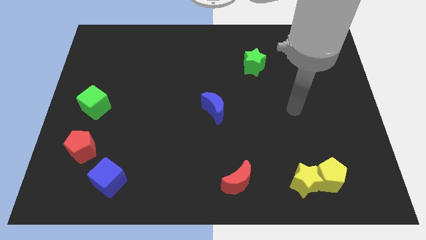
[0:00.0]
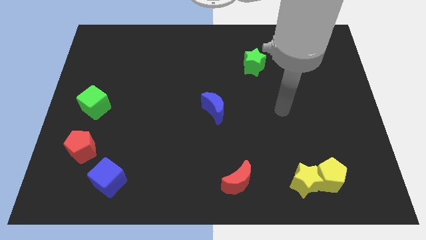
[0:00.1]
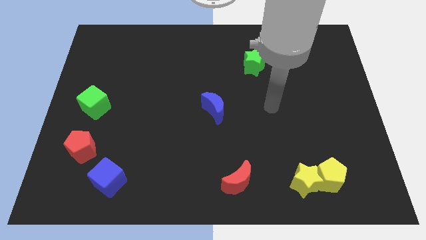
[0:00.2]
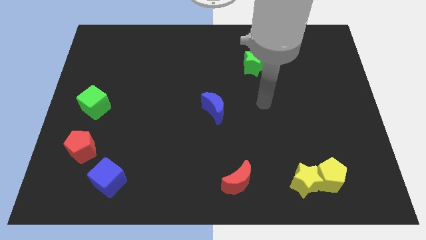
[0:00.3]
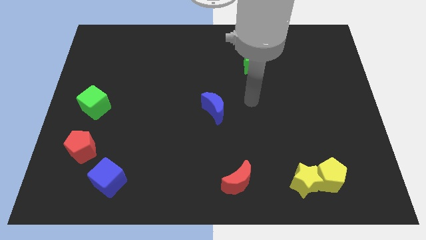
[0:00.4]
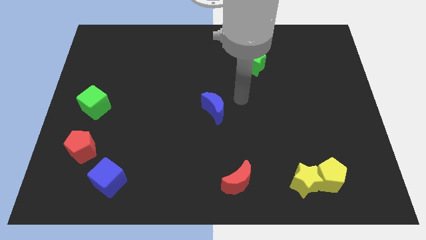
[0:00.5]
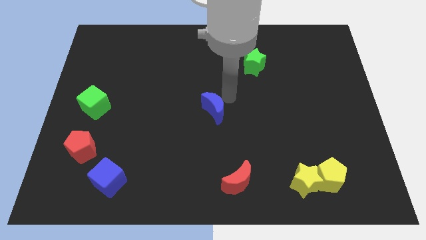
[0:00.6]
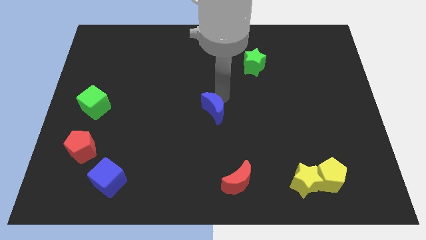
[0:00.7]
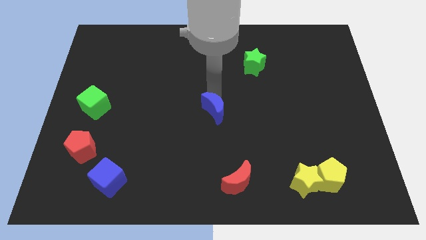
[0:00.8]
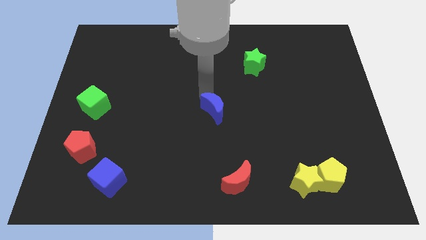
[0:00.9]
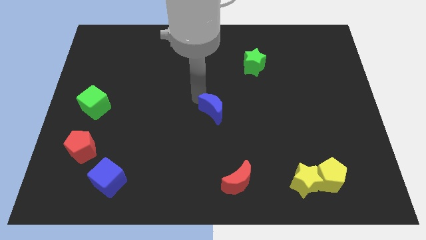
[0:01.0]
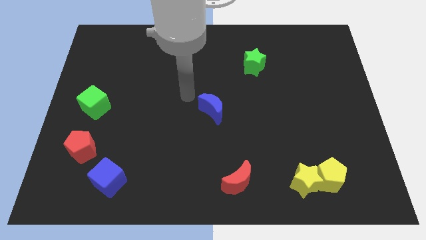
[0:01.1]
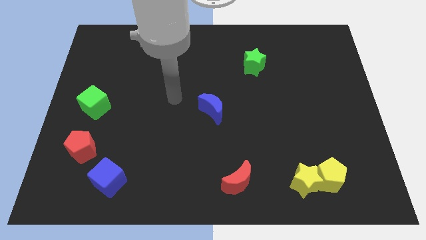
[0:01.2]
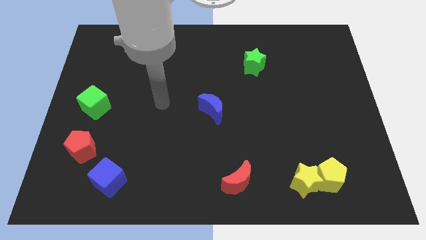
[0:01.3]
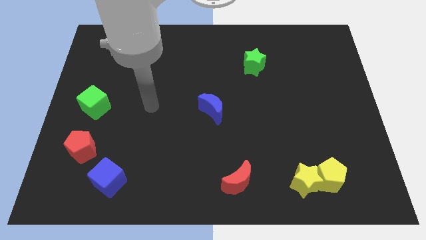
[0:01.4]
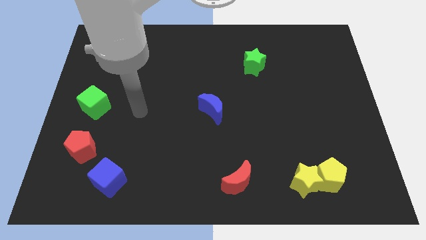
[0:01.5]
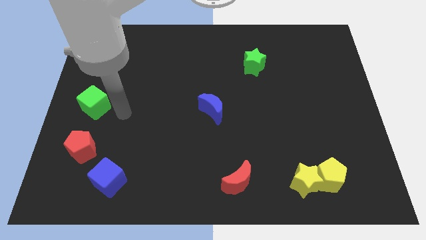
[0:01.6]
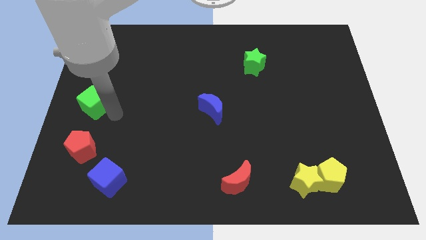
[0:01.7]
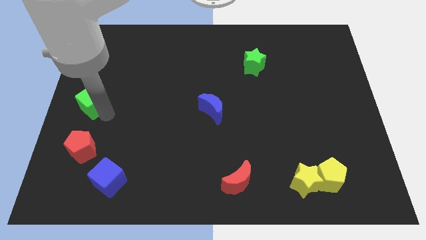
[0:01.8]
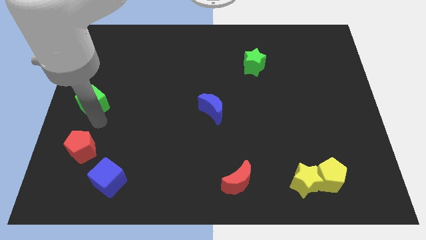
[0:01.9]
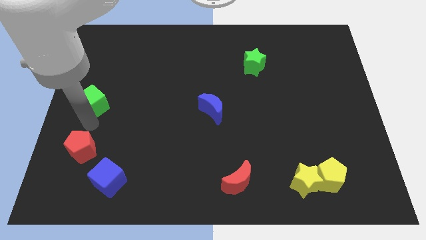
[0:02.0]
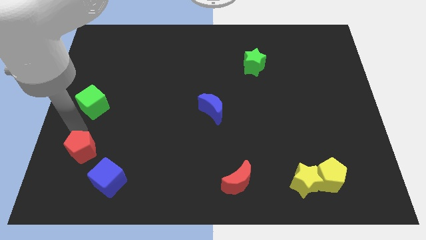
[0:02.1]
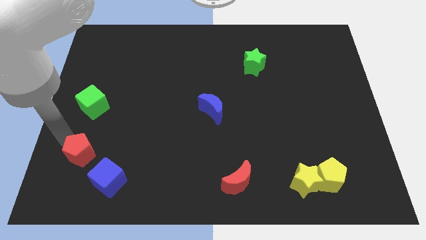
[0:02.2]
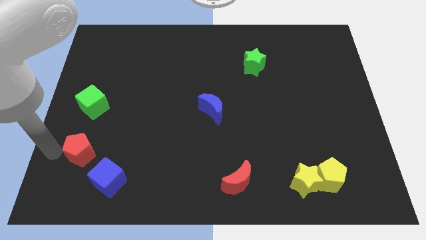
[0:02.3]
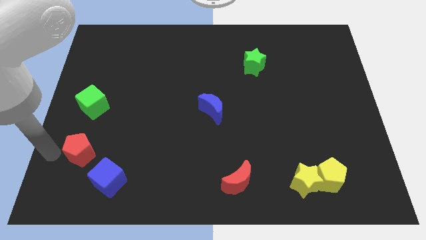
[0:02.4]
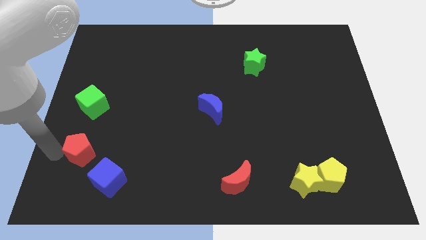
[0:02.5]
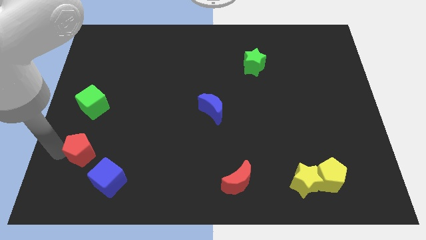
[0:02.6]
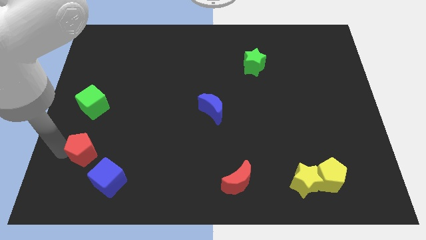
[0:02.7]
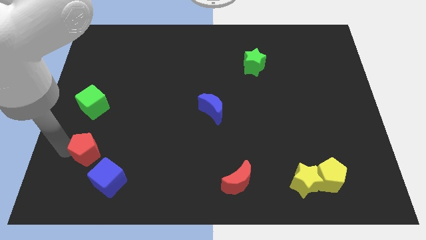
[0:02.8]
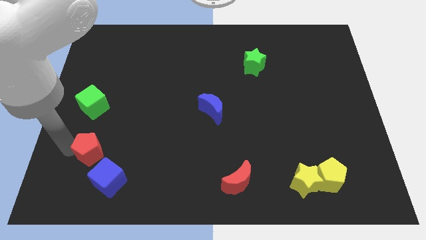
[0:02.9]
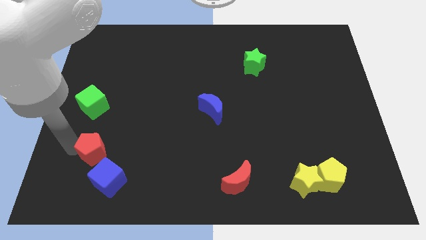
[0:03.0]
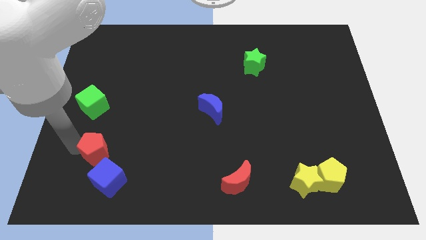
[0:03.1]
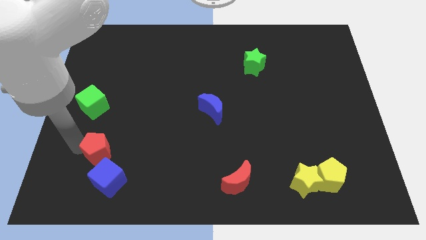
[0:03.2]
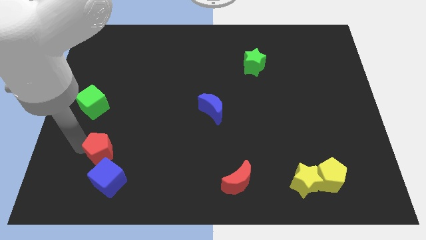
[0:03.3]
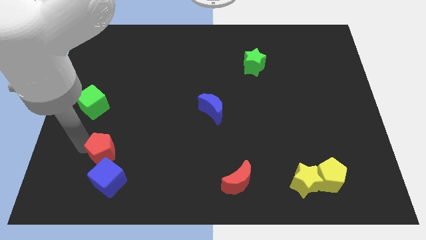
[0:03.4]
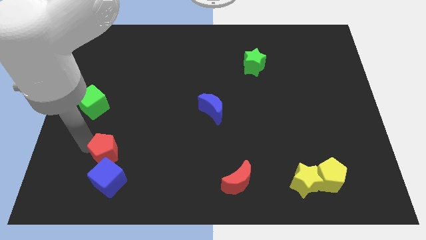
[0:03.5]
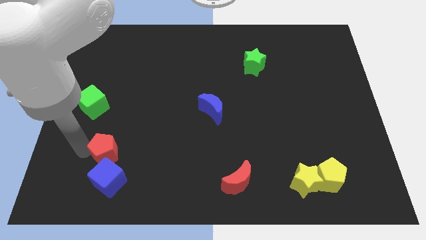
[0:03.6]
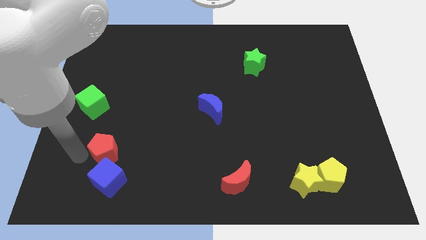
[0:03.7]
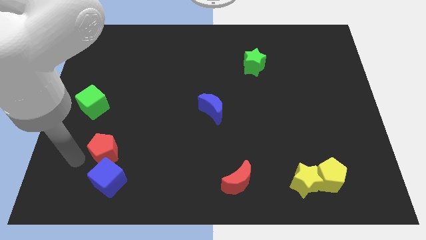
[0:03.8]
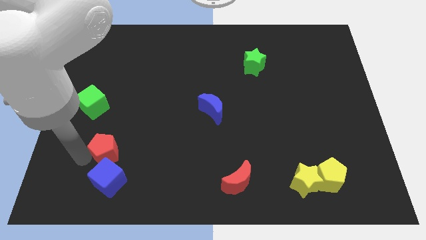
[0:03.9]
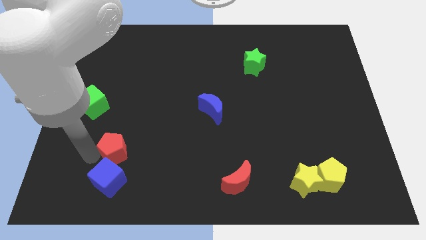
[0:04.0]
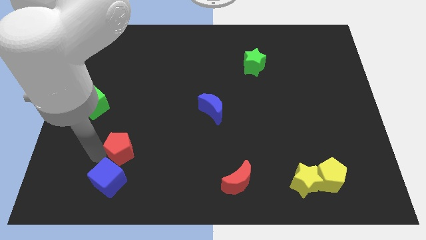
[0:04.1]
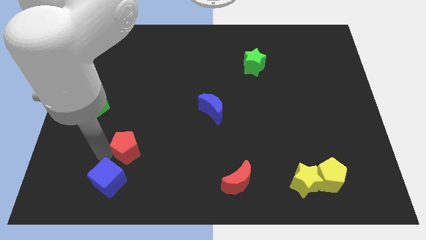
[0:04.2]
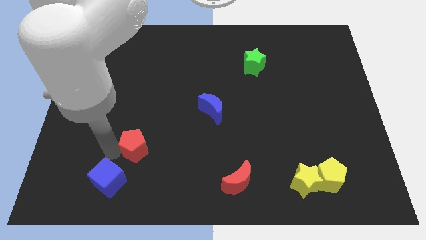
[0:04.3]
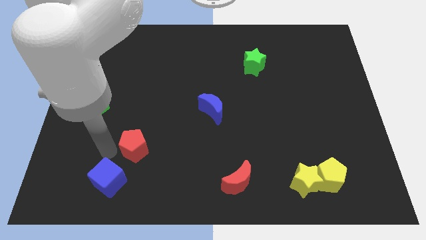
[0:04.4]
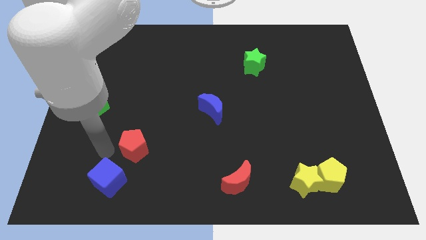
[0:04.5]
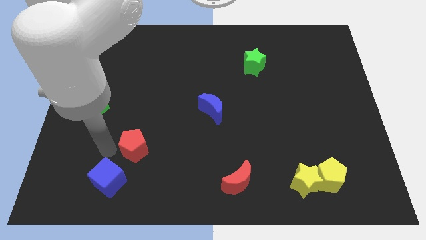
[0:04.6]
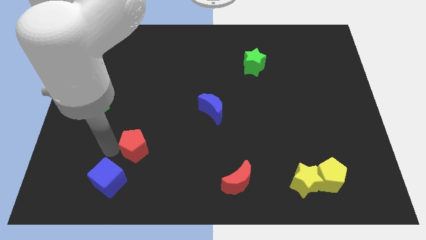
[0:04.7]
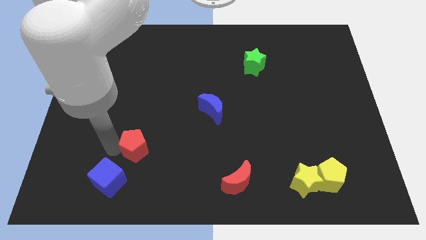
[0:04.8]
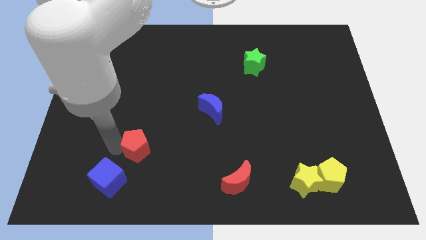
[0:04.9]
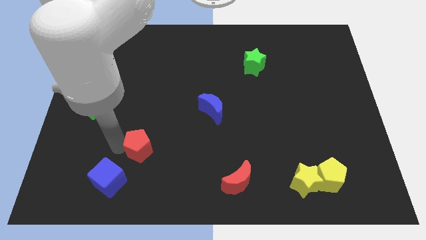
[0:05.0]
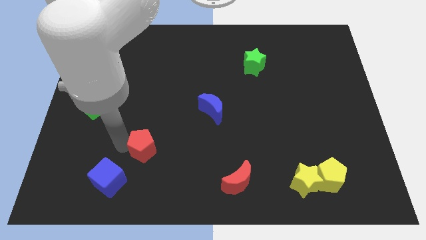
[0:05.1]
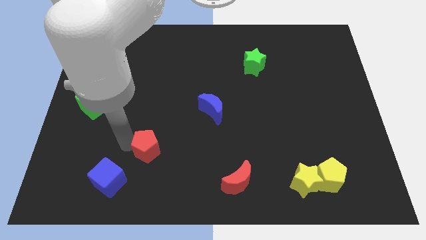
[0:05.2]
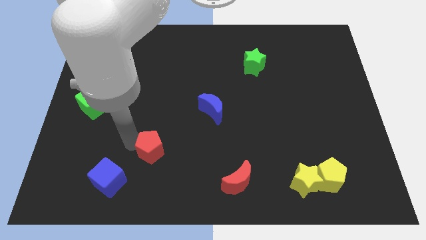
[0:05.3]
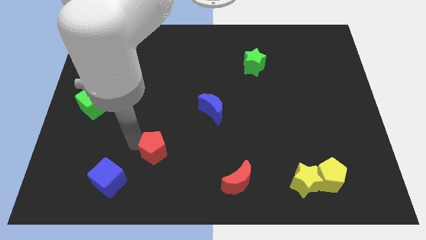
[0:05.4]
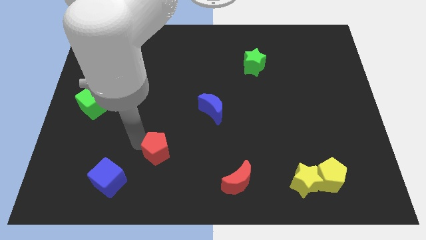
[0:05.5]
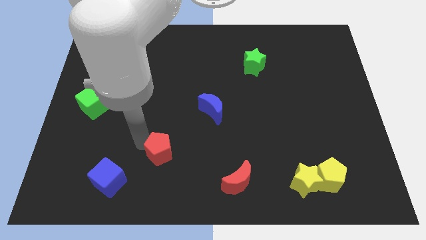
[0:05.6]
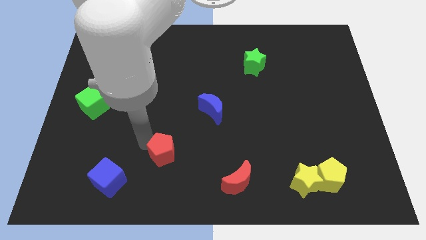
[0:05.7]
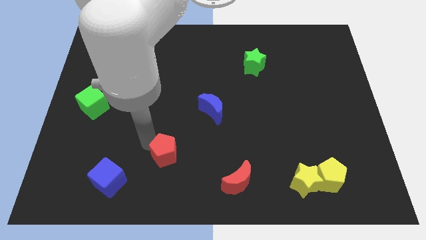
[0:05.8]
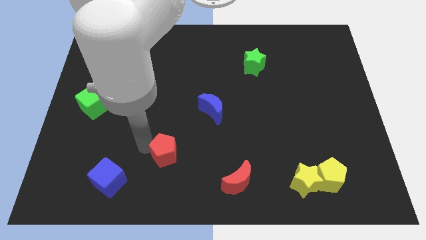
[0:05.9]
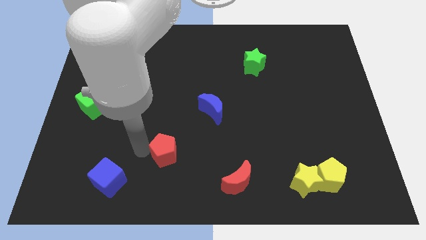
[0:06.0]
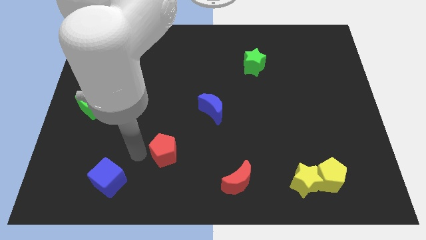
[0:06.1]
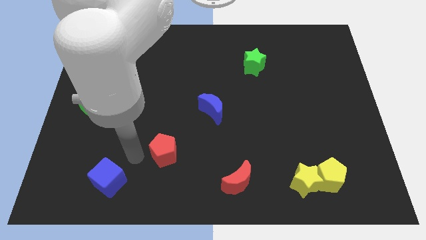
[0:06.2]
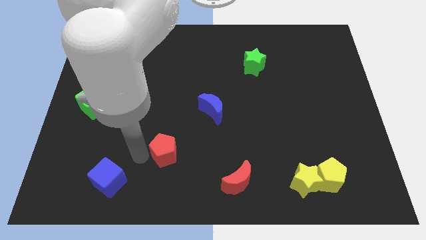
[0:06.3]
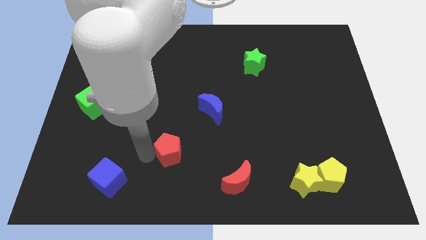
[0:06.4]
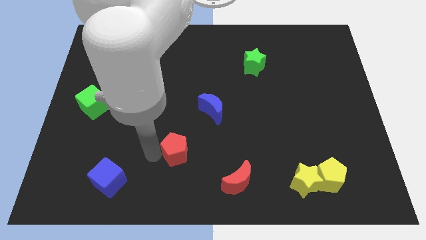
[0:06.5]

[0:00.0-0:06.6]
slide the red pentagon to the right

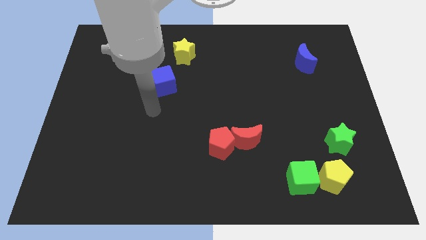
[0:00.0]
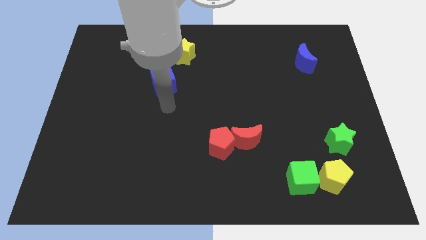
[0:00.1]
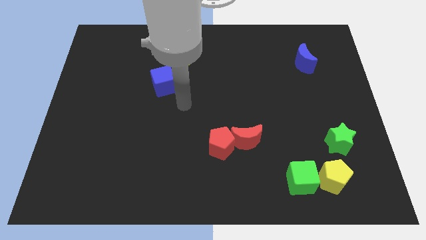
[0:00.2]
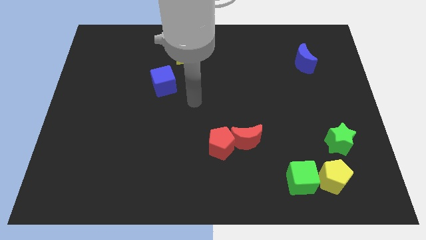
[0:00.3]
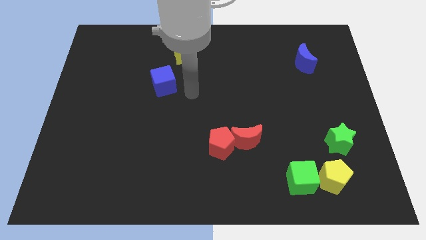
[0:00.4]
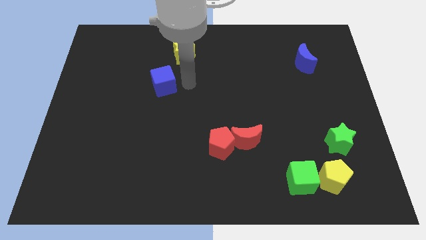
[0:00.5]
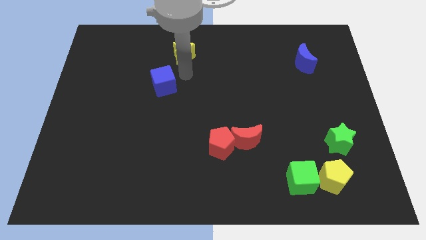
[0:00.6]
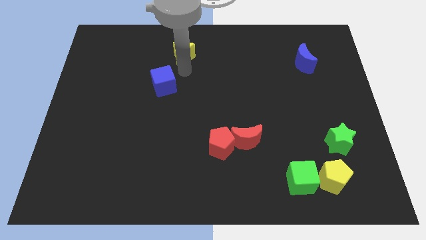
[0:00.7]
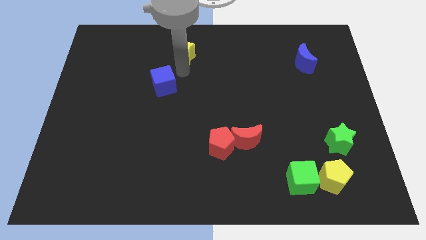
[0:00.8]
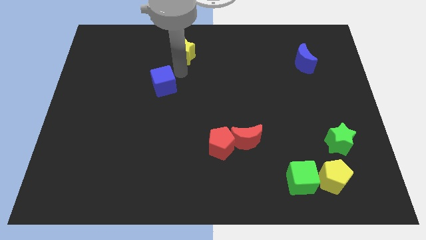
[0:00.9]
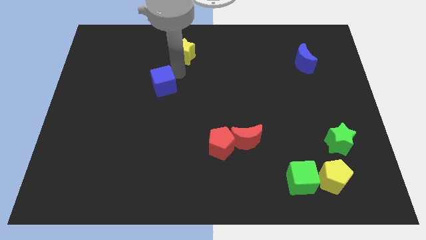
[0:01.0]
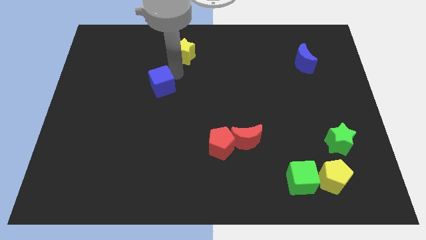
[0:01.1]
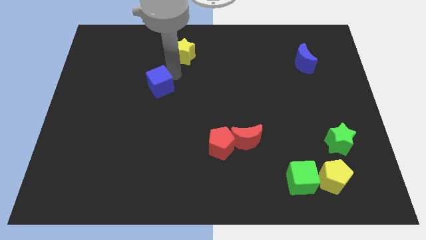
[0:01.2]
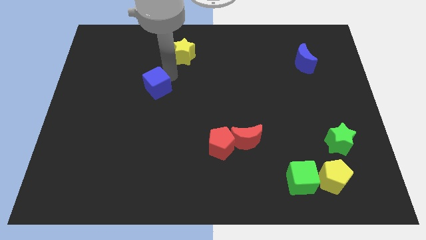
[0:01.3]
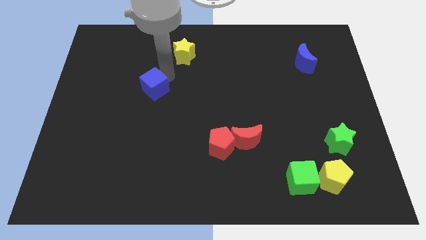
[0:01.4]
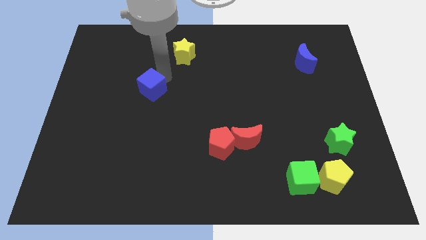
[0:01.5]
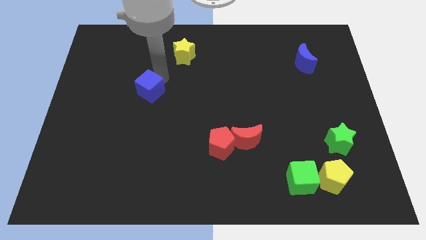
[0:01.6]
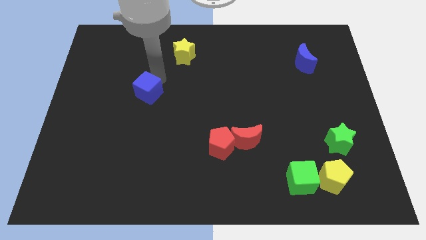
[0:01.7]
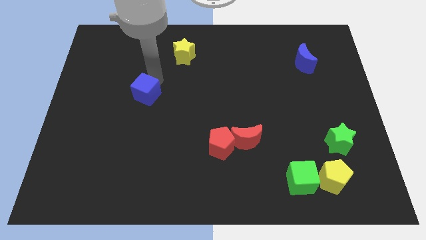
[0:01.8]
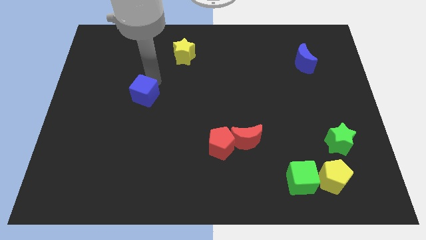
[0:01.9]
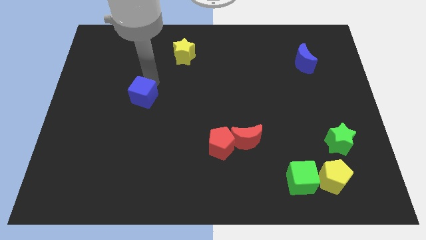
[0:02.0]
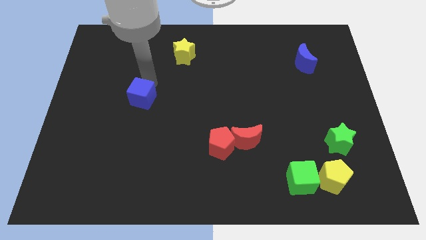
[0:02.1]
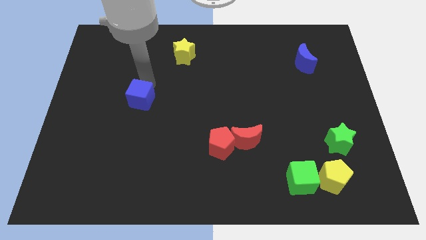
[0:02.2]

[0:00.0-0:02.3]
slightly move the blue cube down and then left
